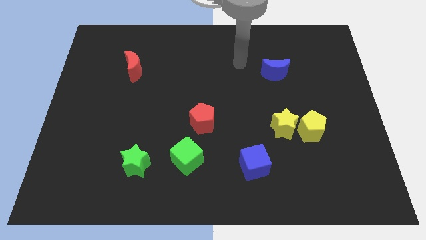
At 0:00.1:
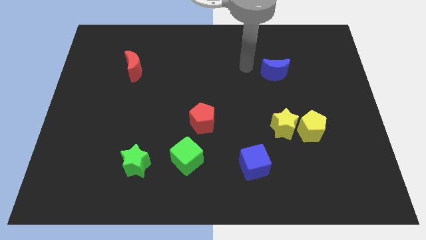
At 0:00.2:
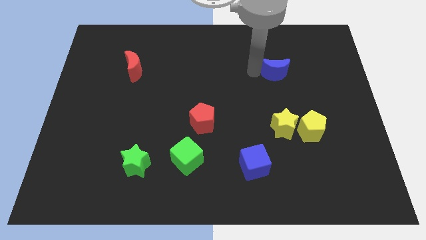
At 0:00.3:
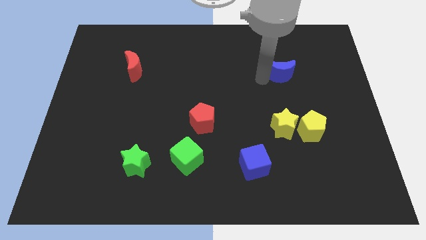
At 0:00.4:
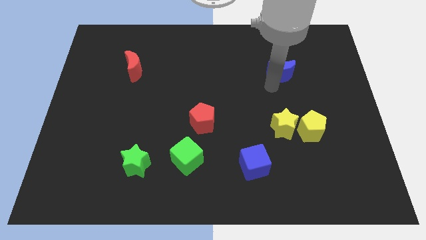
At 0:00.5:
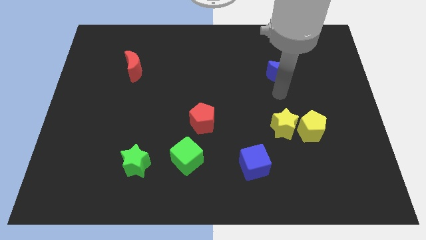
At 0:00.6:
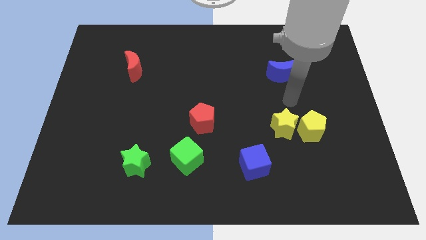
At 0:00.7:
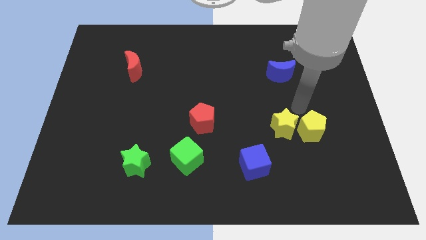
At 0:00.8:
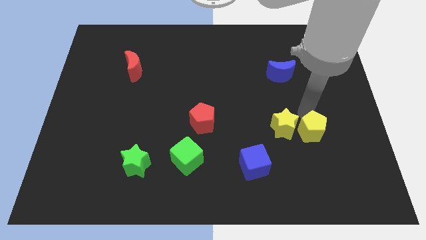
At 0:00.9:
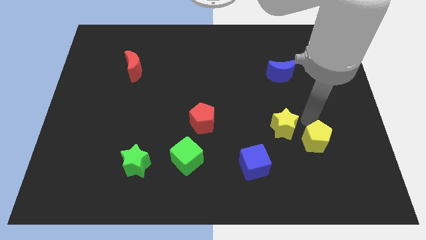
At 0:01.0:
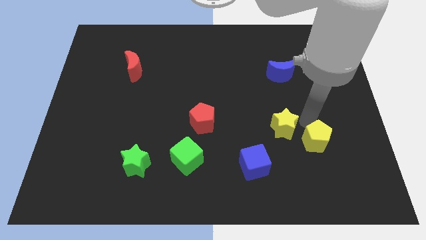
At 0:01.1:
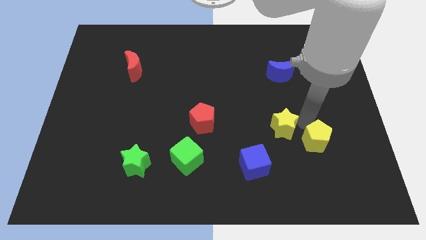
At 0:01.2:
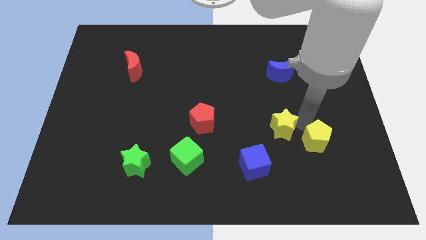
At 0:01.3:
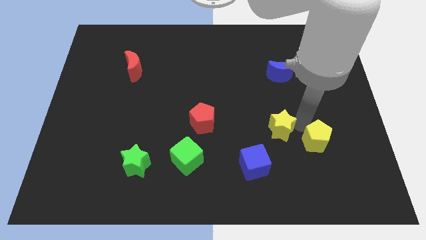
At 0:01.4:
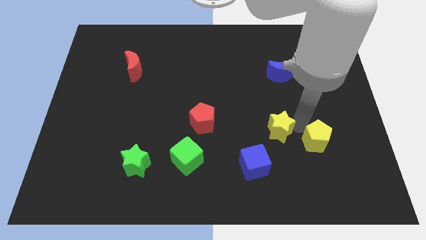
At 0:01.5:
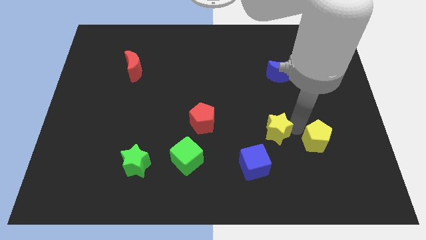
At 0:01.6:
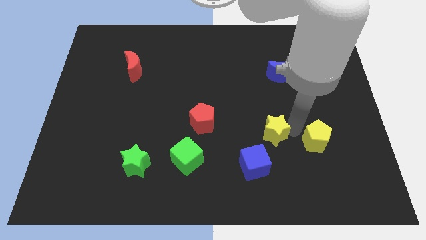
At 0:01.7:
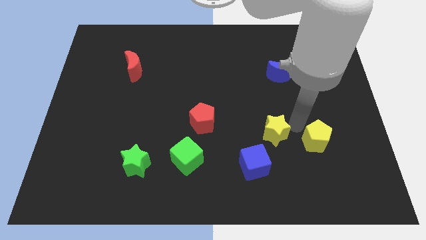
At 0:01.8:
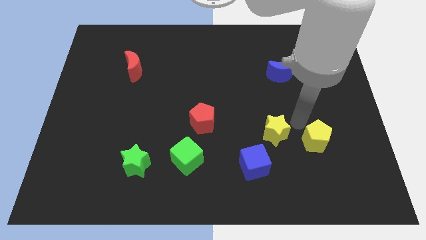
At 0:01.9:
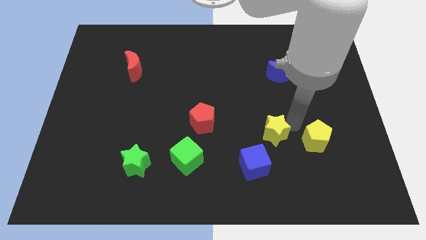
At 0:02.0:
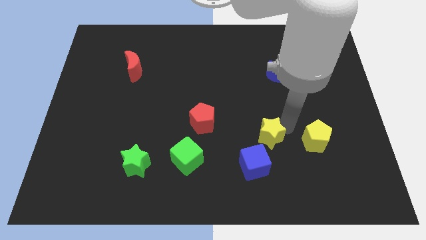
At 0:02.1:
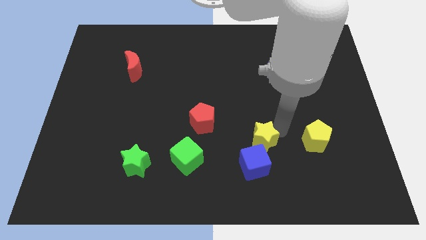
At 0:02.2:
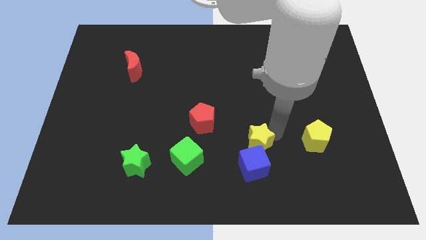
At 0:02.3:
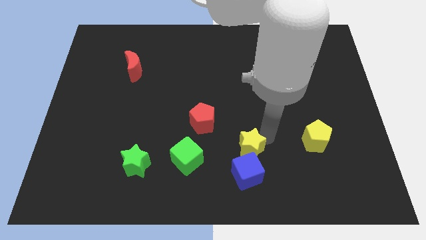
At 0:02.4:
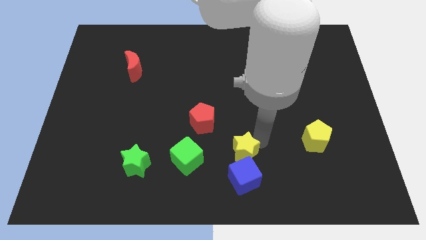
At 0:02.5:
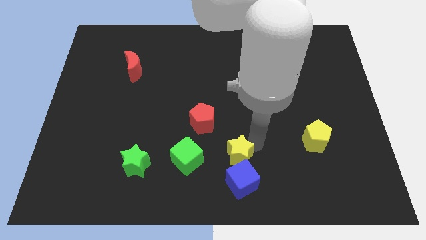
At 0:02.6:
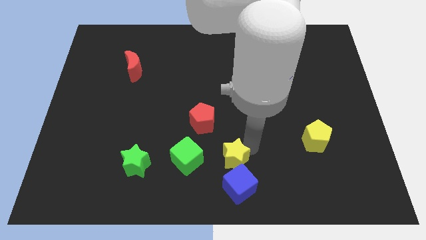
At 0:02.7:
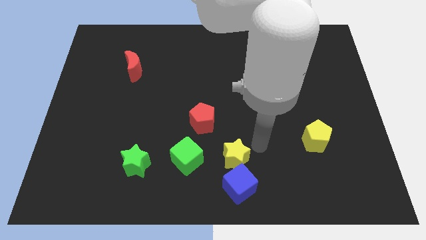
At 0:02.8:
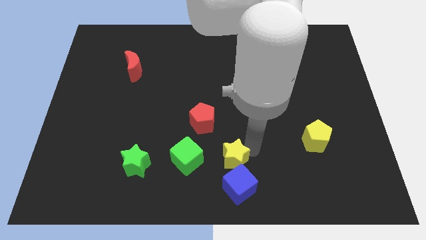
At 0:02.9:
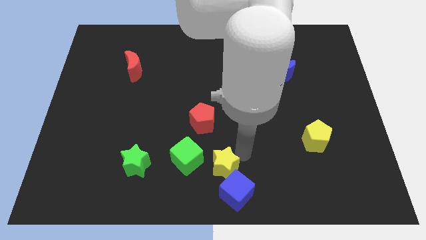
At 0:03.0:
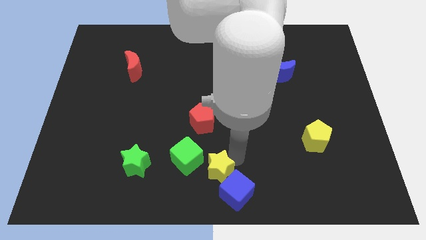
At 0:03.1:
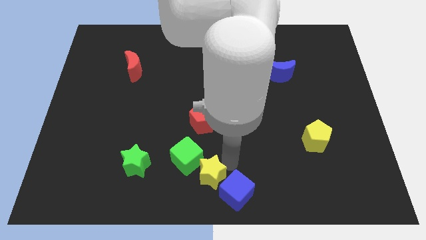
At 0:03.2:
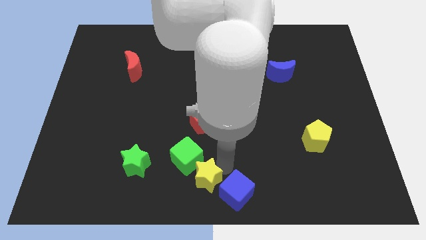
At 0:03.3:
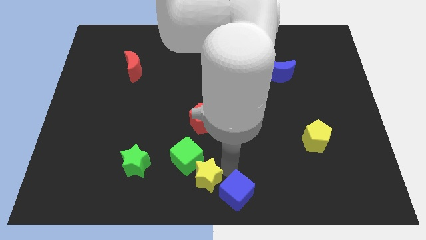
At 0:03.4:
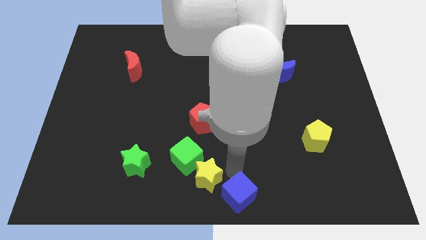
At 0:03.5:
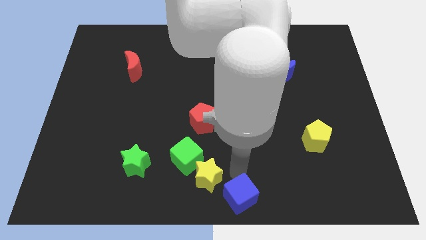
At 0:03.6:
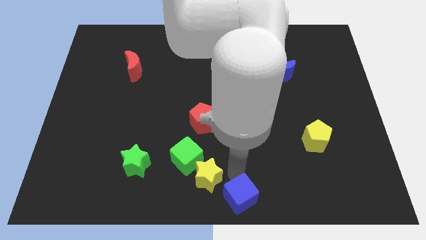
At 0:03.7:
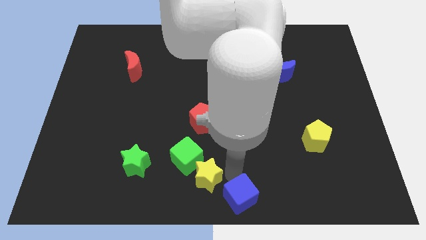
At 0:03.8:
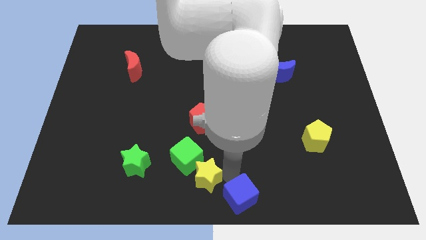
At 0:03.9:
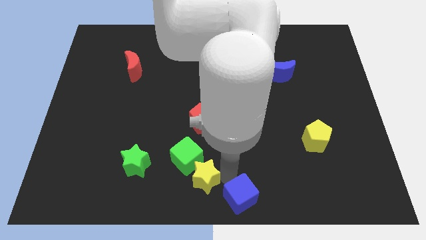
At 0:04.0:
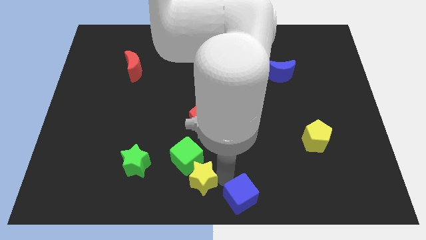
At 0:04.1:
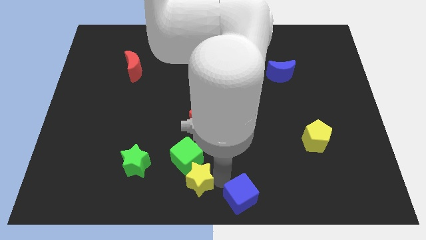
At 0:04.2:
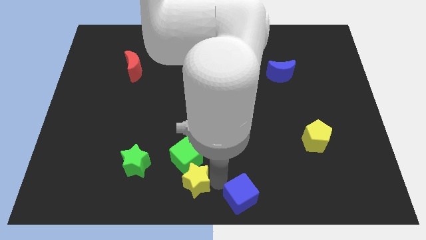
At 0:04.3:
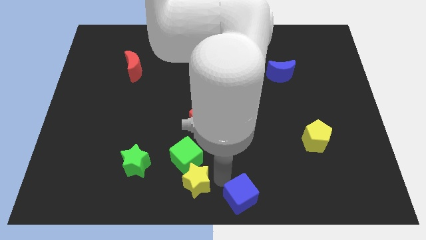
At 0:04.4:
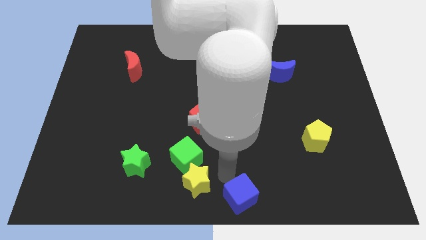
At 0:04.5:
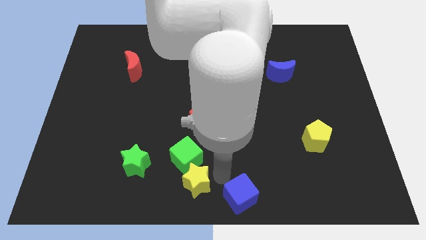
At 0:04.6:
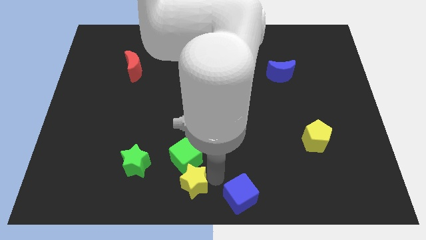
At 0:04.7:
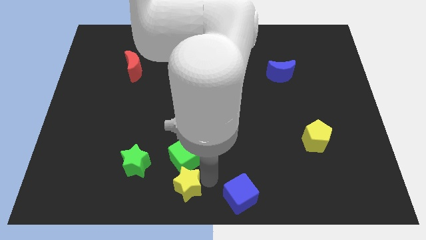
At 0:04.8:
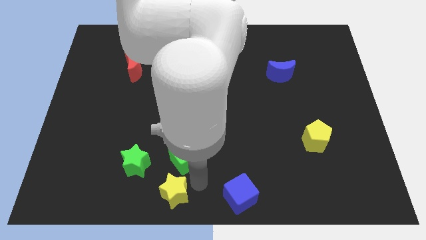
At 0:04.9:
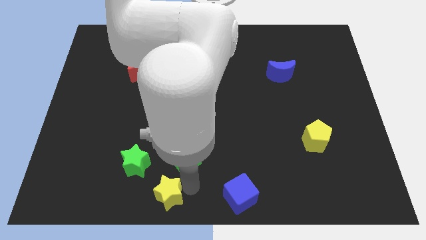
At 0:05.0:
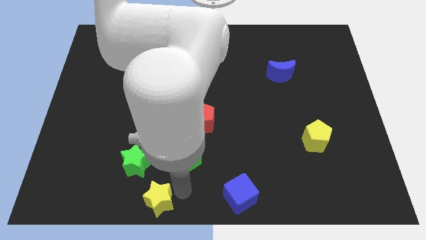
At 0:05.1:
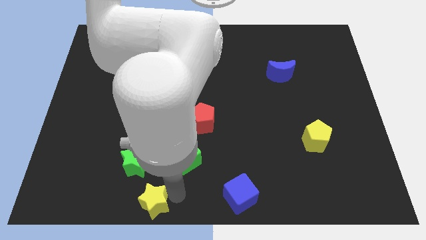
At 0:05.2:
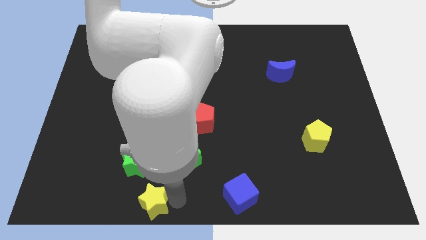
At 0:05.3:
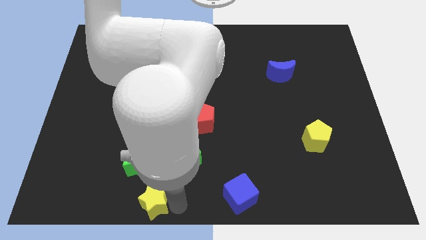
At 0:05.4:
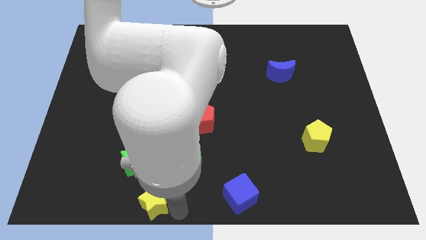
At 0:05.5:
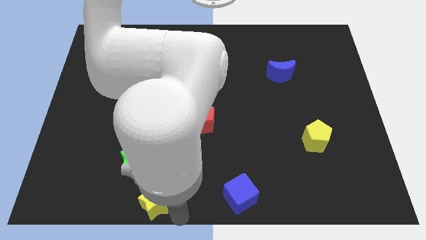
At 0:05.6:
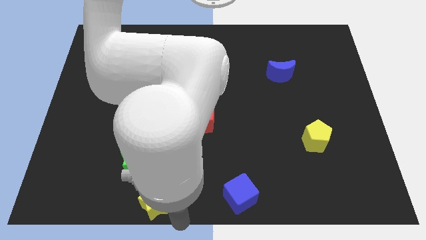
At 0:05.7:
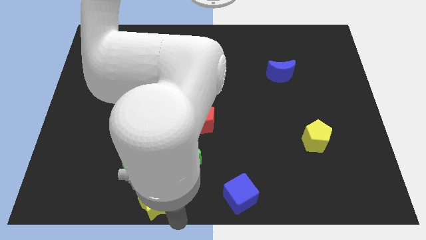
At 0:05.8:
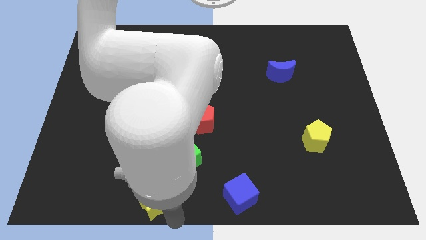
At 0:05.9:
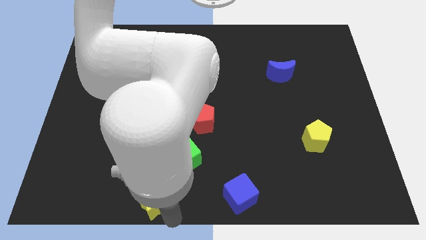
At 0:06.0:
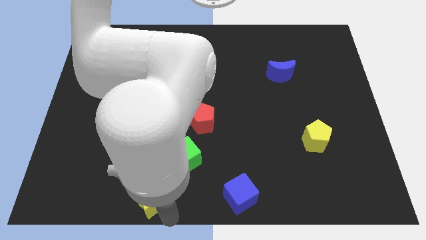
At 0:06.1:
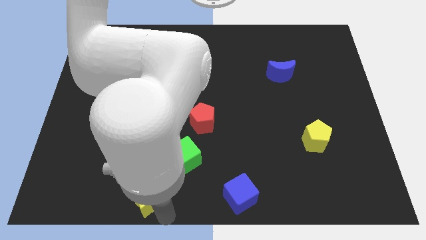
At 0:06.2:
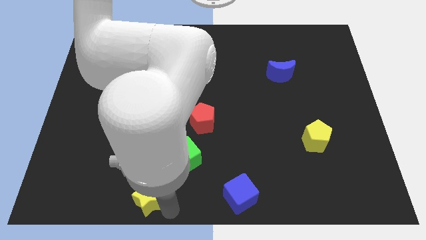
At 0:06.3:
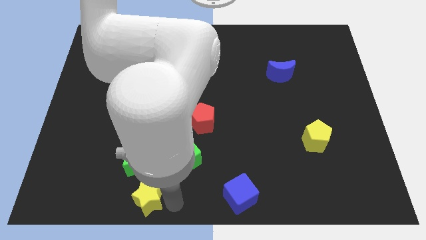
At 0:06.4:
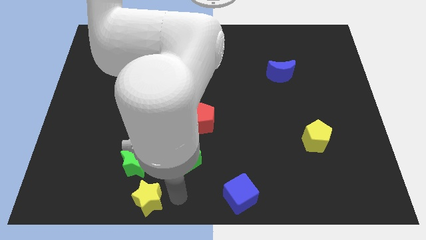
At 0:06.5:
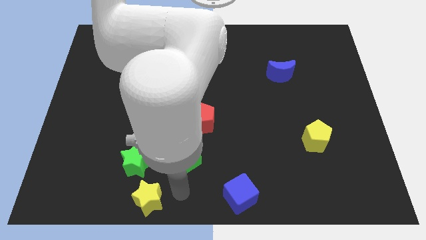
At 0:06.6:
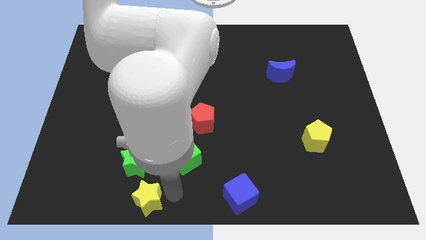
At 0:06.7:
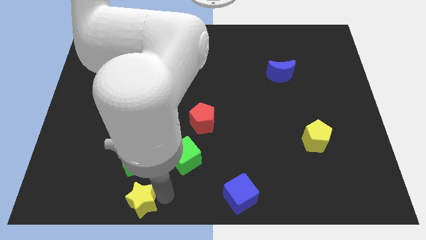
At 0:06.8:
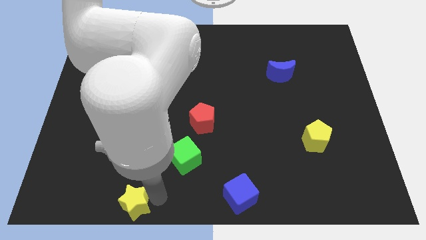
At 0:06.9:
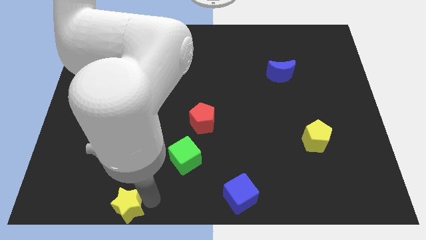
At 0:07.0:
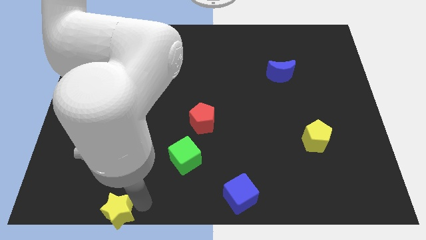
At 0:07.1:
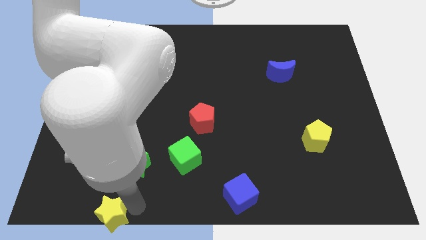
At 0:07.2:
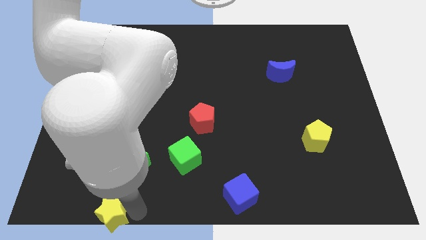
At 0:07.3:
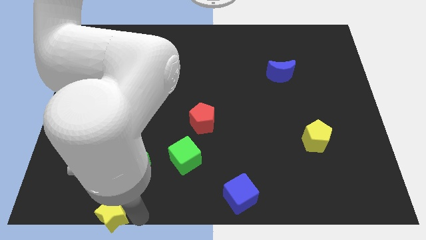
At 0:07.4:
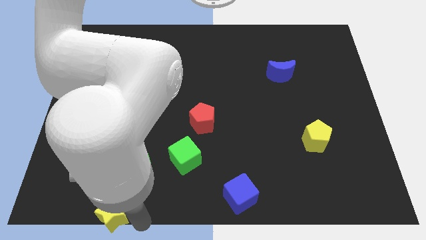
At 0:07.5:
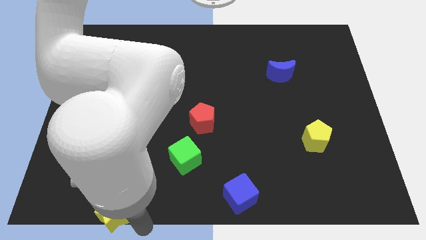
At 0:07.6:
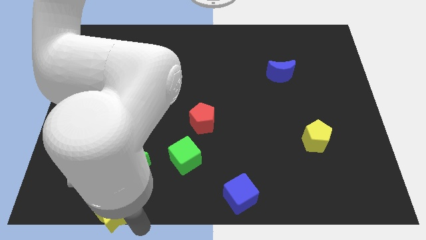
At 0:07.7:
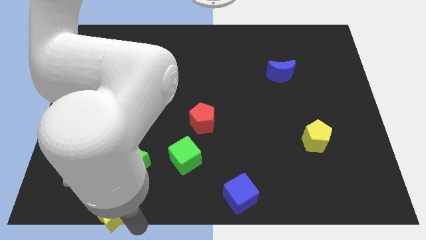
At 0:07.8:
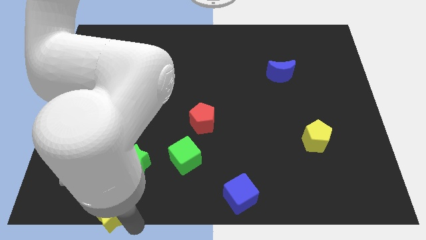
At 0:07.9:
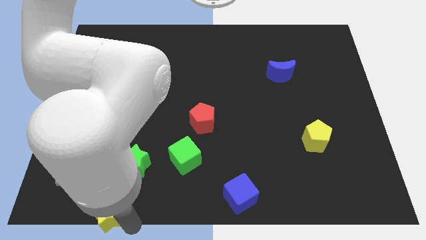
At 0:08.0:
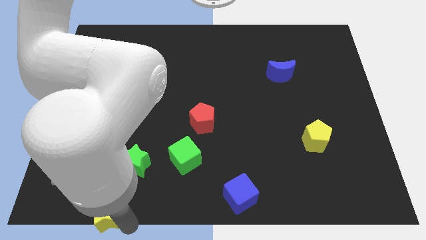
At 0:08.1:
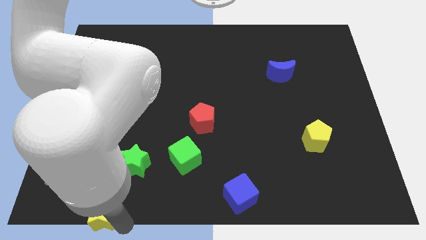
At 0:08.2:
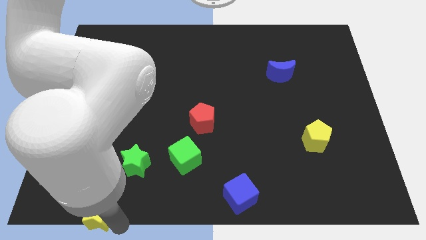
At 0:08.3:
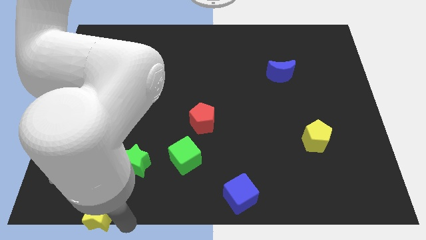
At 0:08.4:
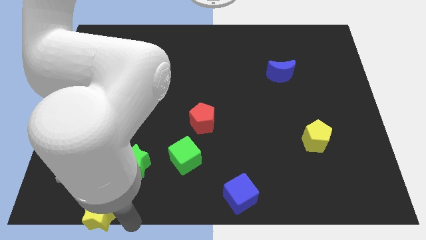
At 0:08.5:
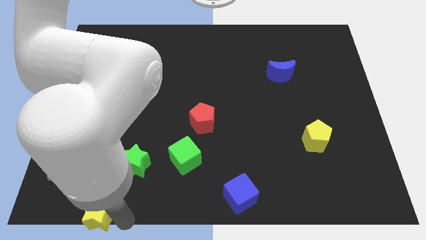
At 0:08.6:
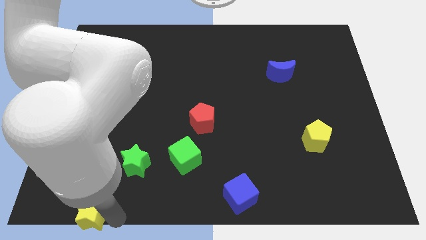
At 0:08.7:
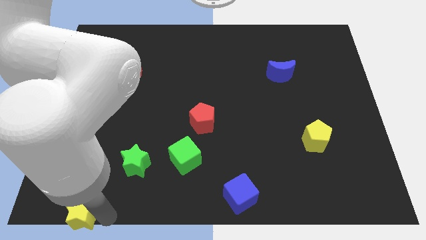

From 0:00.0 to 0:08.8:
put the yellow star to the bottom left
